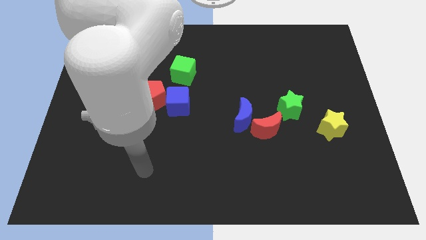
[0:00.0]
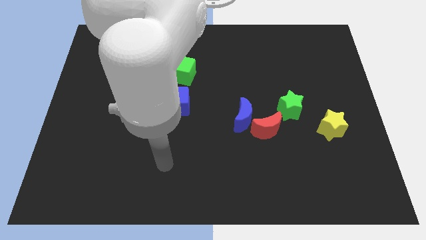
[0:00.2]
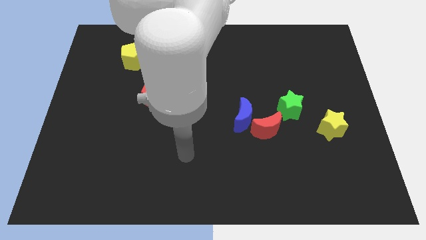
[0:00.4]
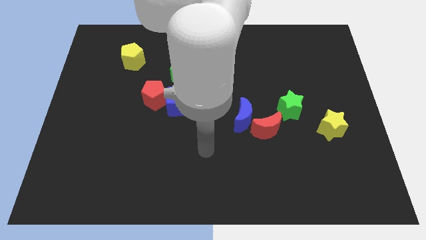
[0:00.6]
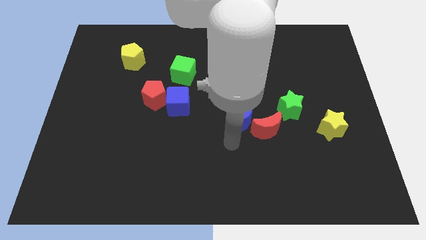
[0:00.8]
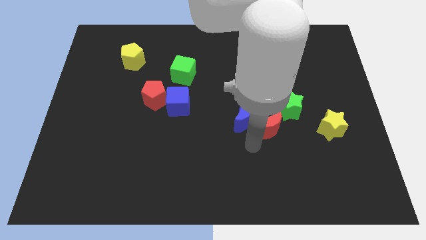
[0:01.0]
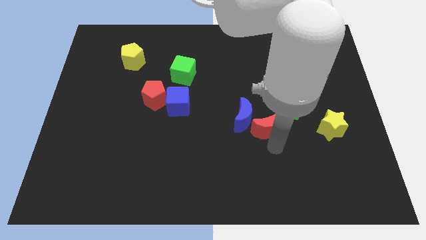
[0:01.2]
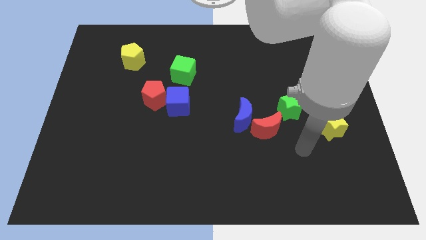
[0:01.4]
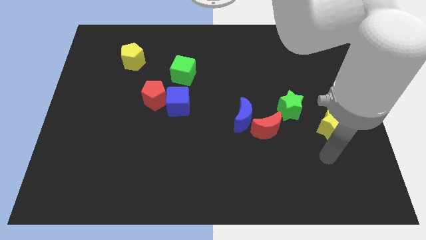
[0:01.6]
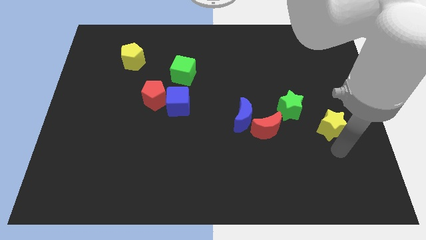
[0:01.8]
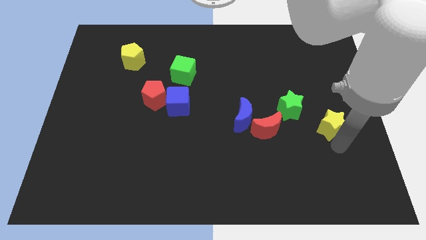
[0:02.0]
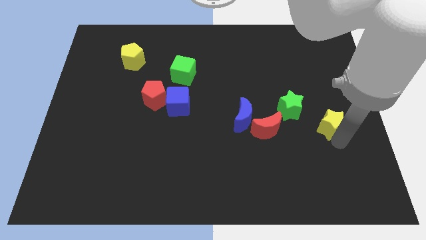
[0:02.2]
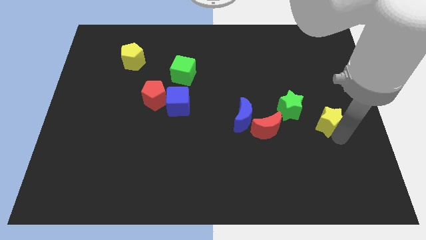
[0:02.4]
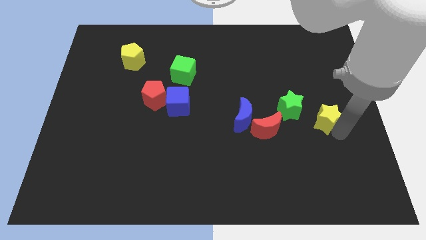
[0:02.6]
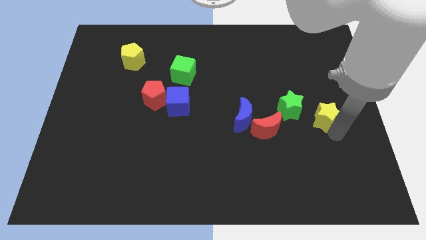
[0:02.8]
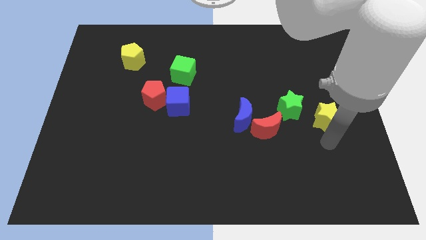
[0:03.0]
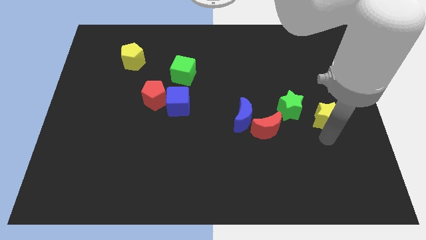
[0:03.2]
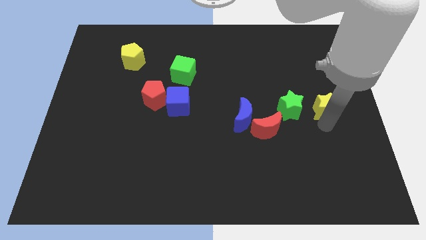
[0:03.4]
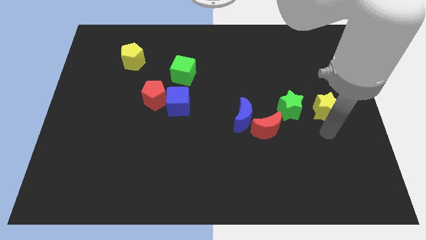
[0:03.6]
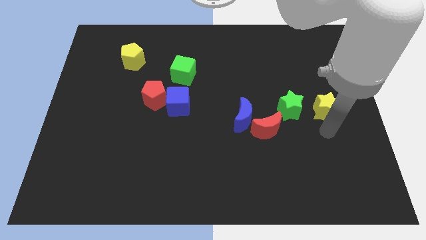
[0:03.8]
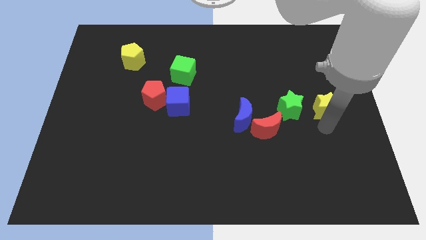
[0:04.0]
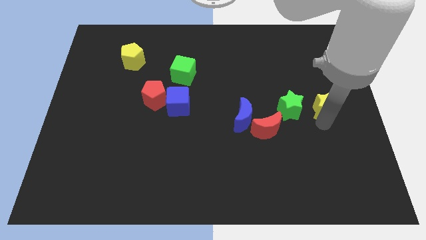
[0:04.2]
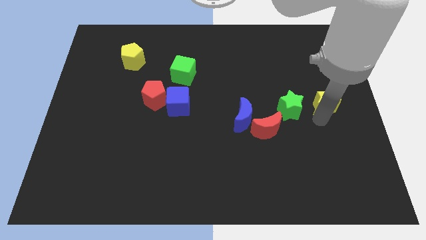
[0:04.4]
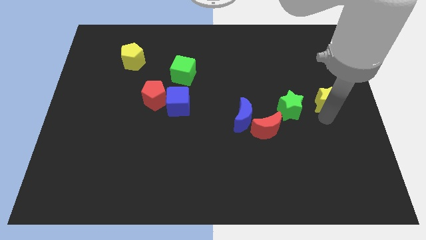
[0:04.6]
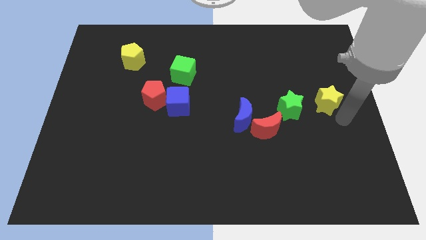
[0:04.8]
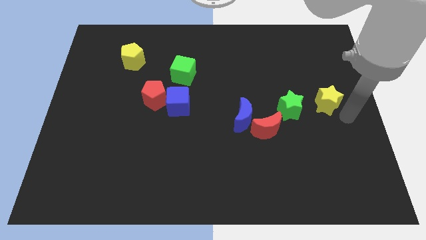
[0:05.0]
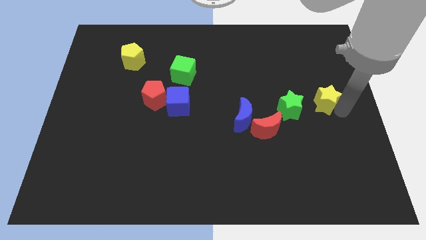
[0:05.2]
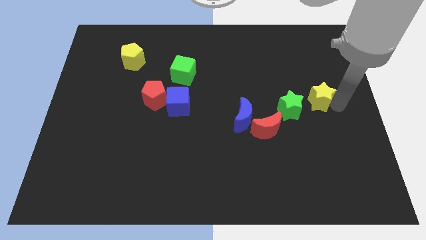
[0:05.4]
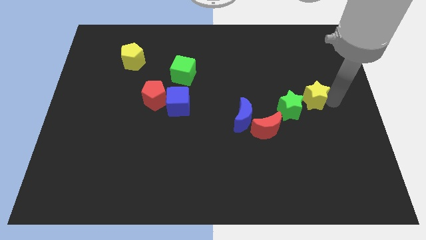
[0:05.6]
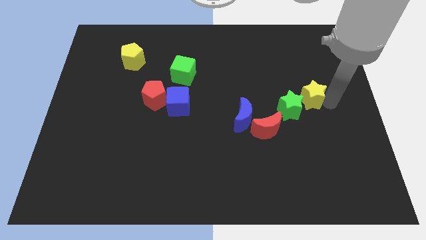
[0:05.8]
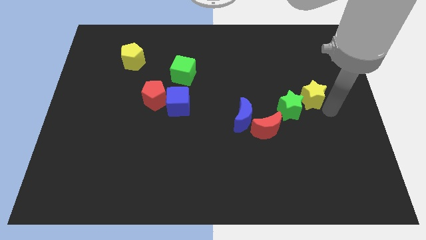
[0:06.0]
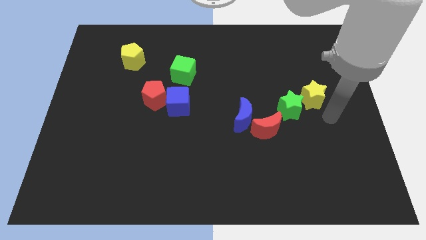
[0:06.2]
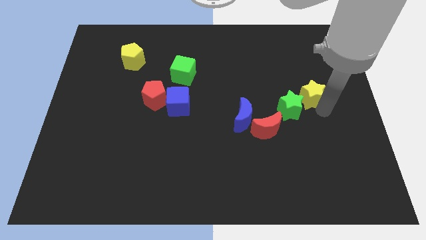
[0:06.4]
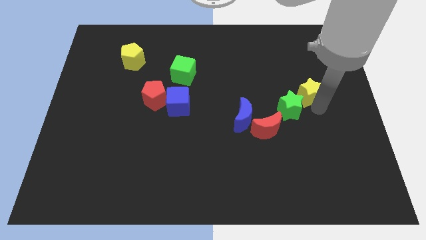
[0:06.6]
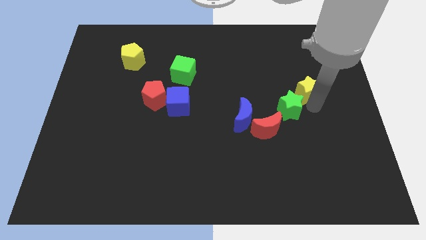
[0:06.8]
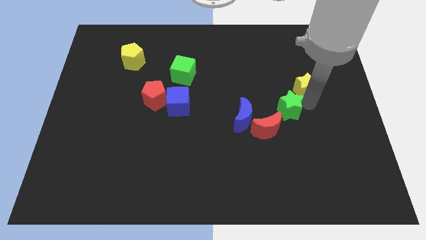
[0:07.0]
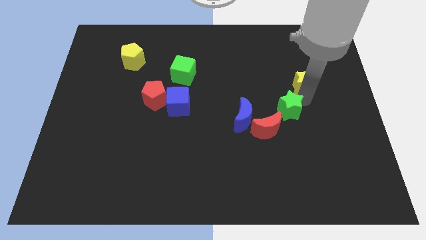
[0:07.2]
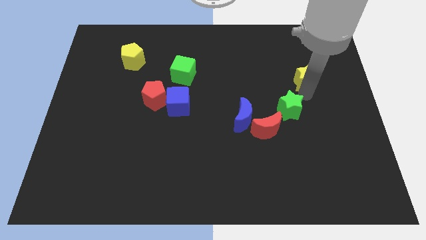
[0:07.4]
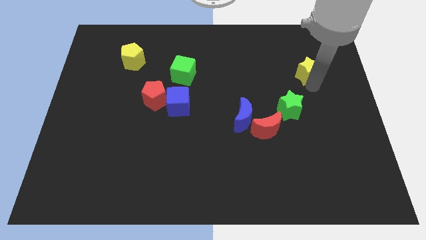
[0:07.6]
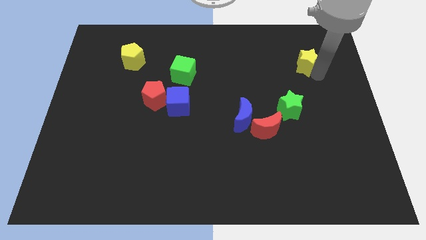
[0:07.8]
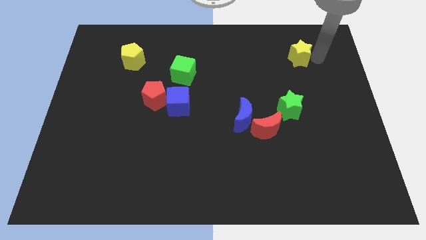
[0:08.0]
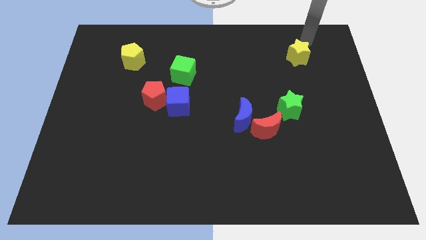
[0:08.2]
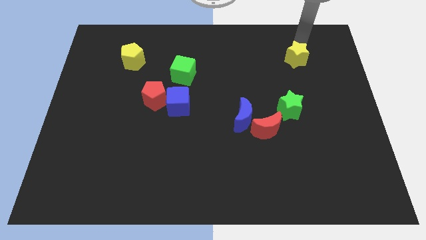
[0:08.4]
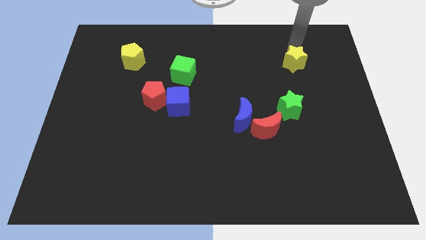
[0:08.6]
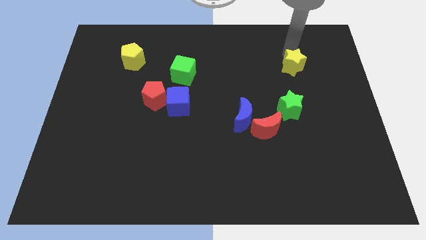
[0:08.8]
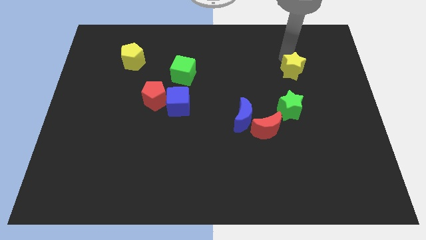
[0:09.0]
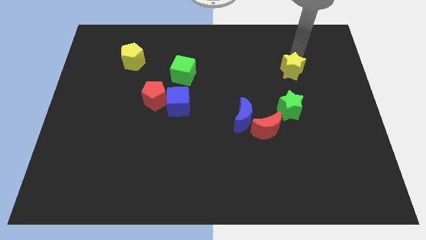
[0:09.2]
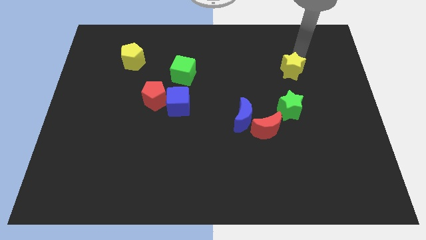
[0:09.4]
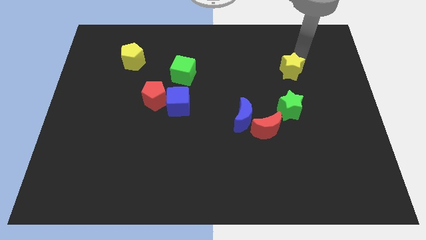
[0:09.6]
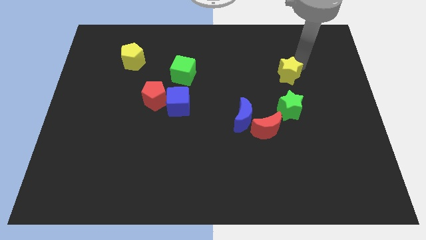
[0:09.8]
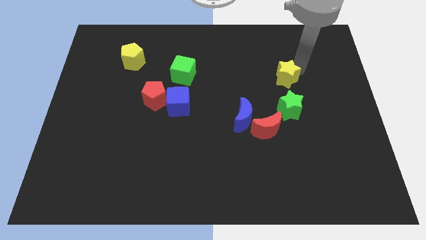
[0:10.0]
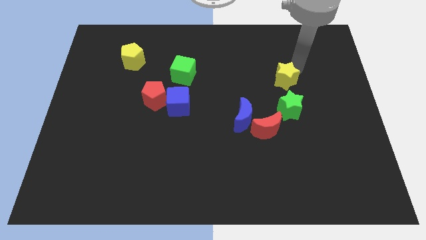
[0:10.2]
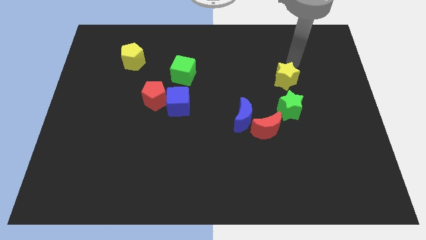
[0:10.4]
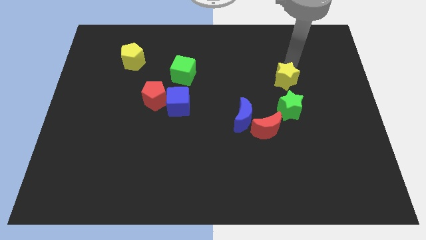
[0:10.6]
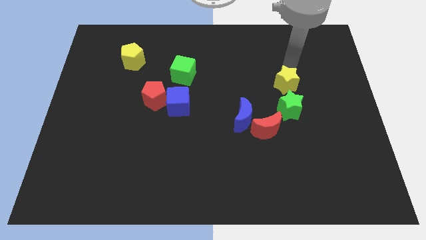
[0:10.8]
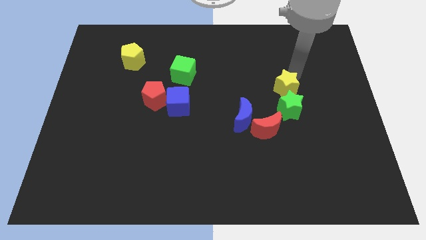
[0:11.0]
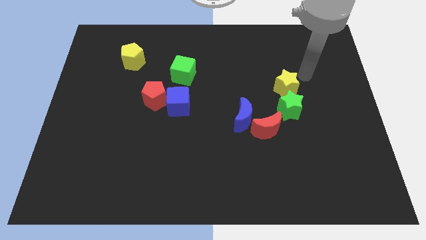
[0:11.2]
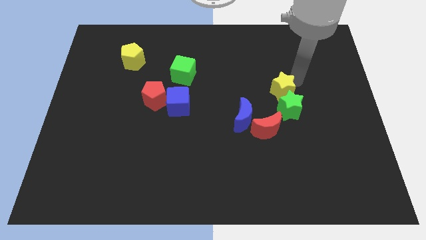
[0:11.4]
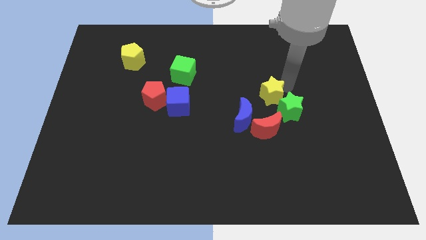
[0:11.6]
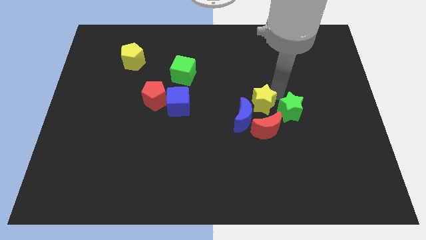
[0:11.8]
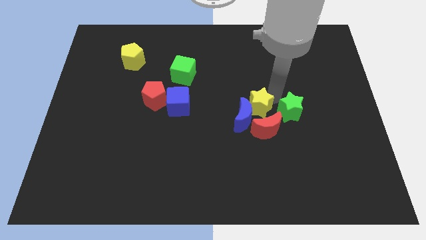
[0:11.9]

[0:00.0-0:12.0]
slide the yellow star to the top left side of the red moon

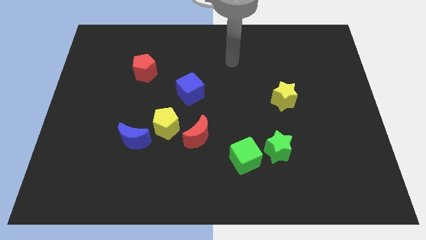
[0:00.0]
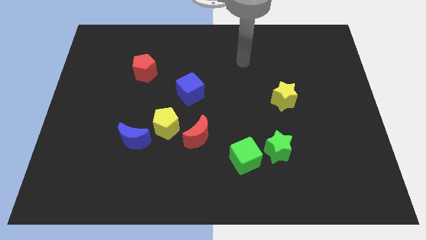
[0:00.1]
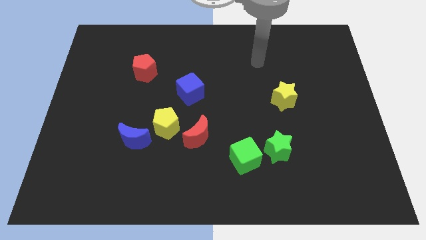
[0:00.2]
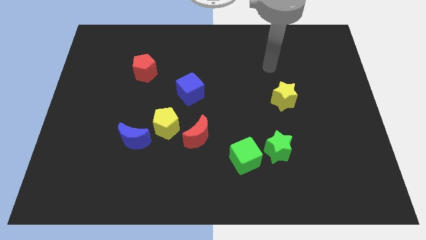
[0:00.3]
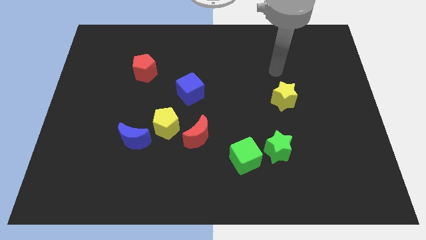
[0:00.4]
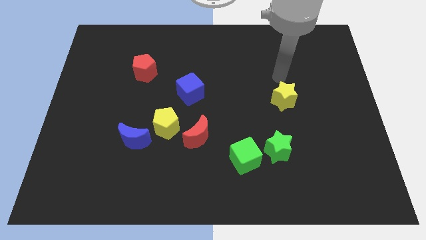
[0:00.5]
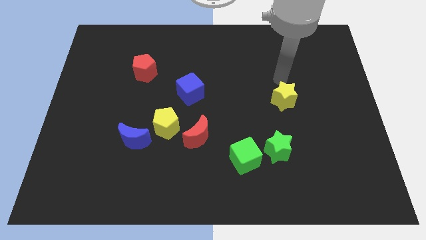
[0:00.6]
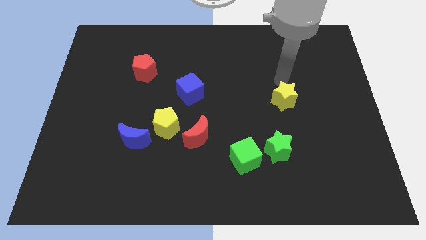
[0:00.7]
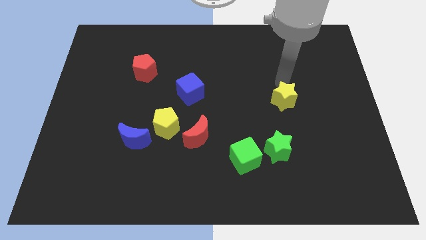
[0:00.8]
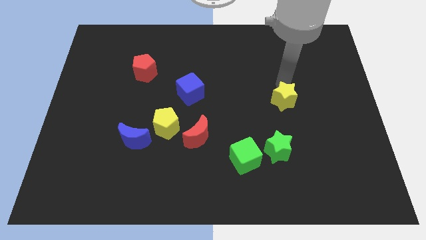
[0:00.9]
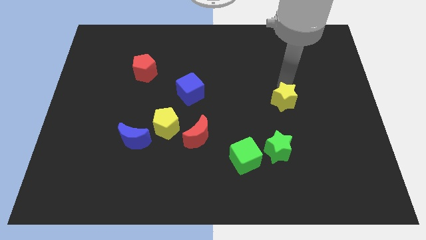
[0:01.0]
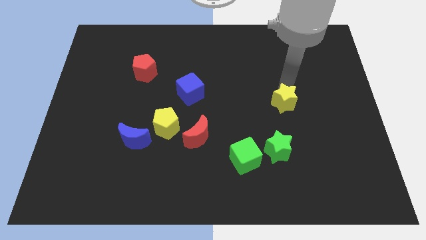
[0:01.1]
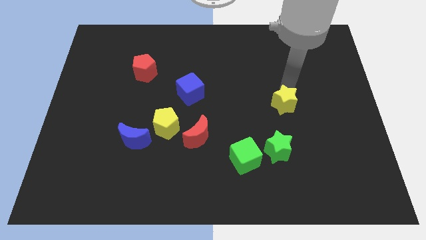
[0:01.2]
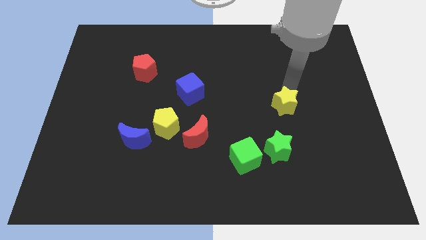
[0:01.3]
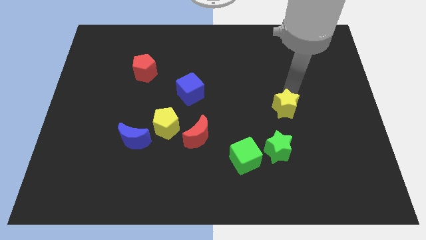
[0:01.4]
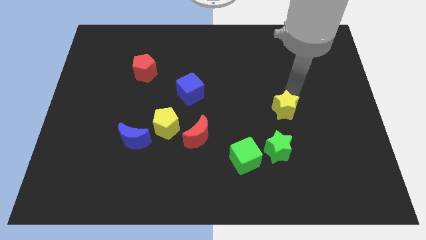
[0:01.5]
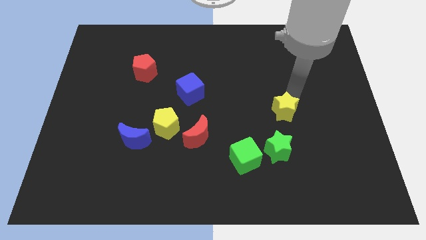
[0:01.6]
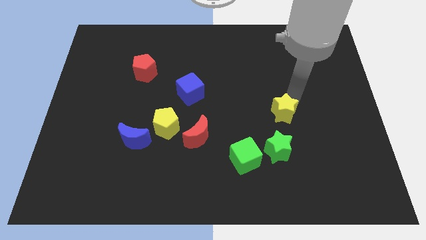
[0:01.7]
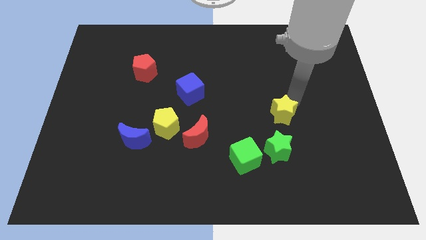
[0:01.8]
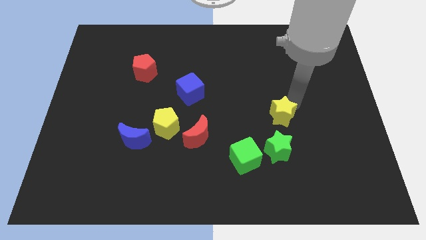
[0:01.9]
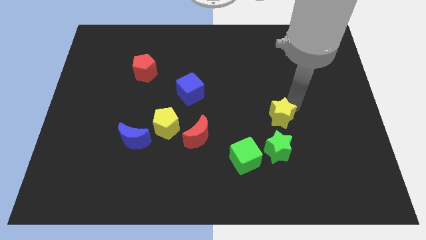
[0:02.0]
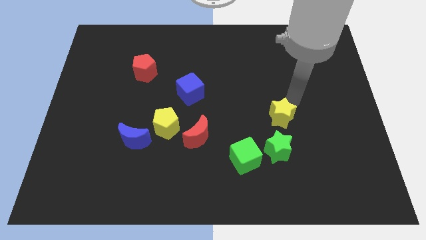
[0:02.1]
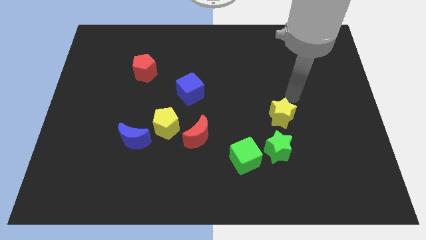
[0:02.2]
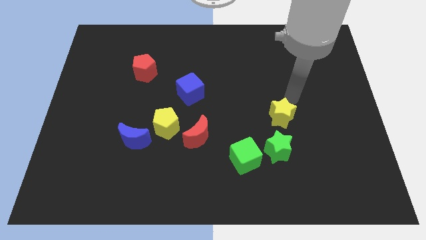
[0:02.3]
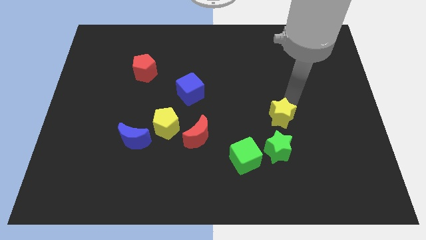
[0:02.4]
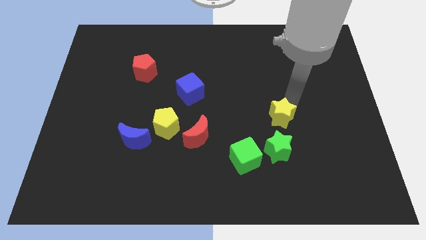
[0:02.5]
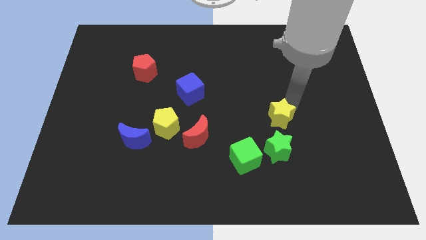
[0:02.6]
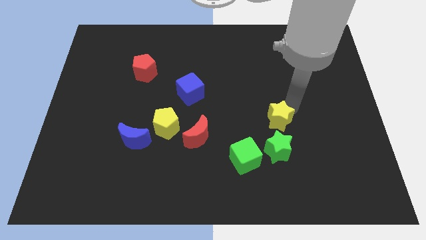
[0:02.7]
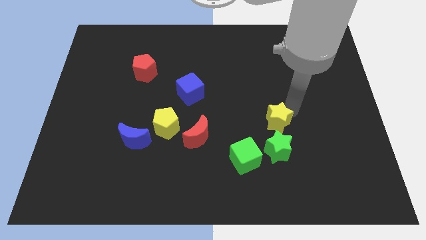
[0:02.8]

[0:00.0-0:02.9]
put the yellow star to the top right of the green cube
